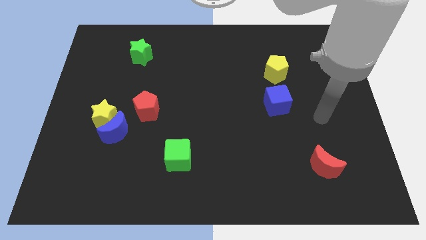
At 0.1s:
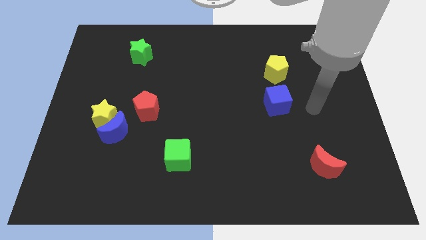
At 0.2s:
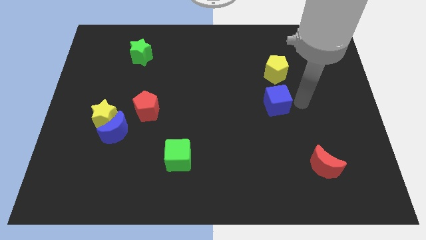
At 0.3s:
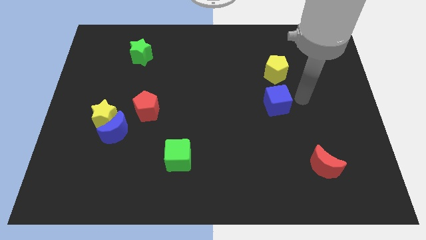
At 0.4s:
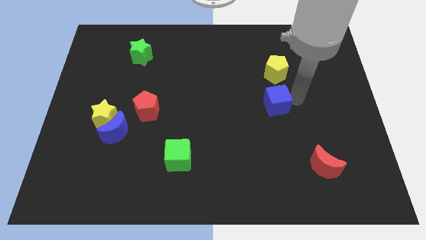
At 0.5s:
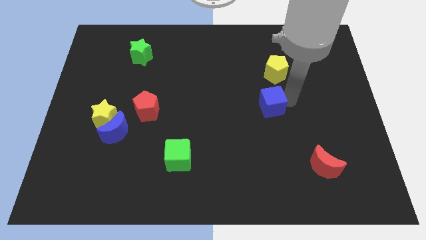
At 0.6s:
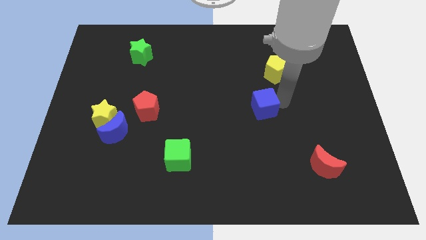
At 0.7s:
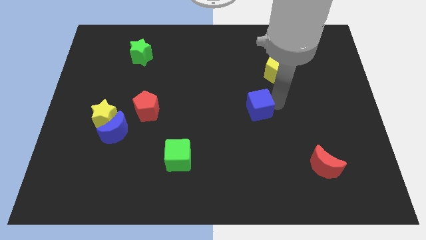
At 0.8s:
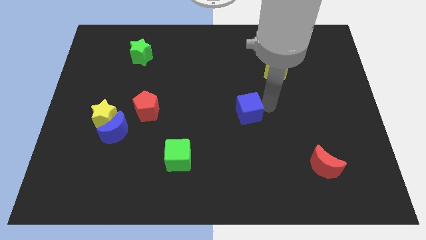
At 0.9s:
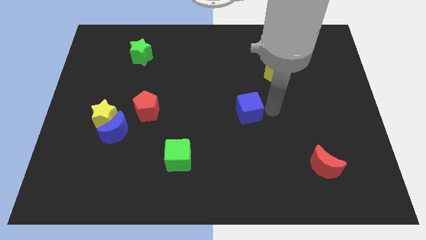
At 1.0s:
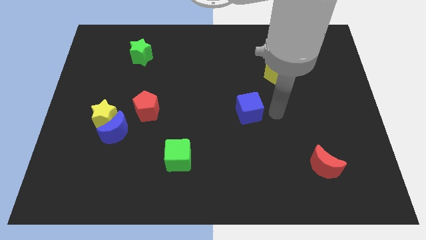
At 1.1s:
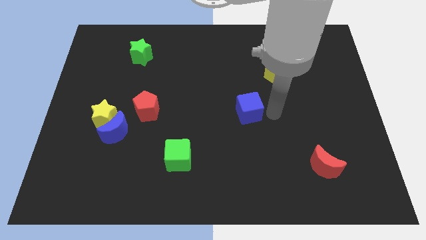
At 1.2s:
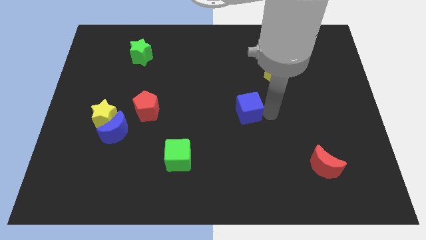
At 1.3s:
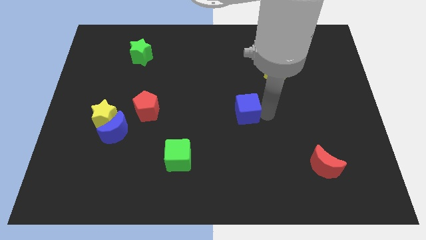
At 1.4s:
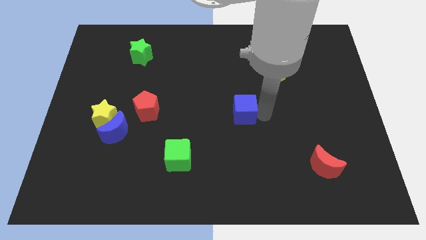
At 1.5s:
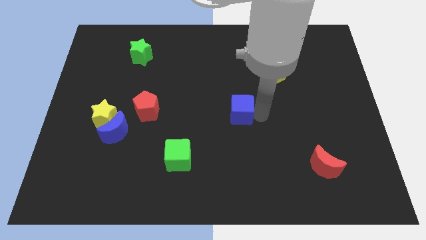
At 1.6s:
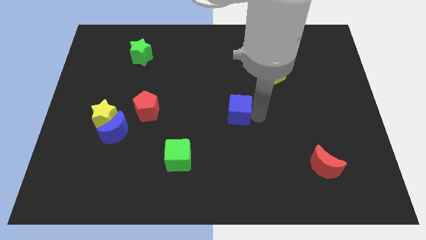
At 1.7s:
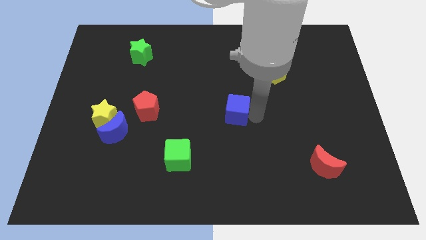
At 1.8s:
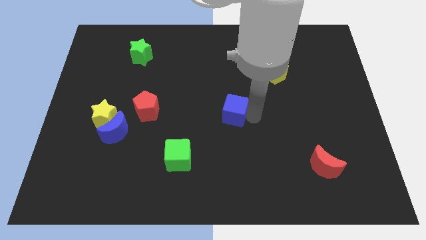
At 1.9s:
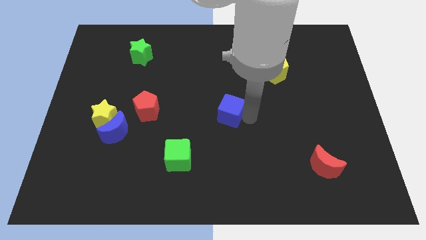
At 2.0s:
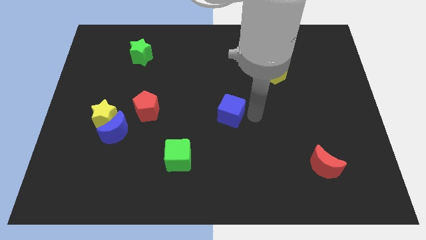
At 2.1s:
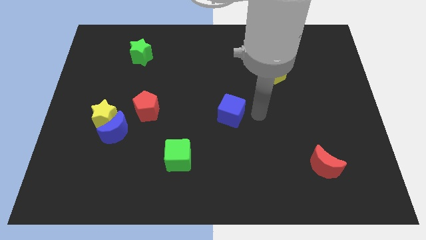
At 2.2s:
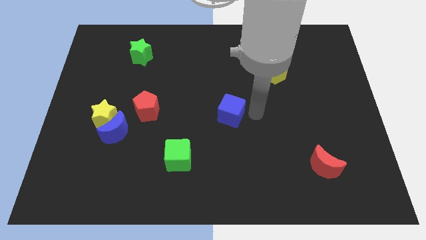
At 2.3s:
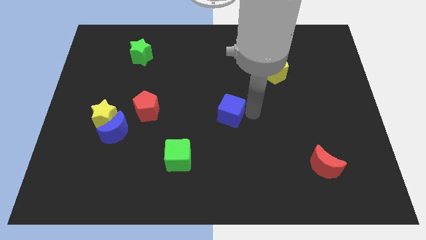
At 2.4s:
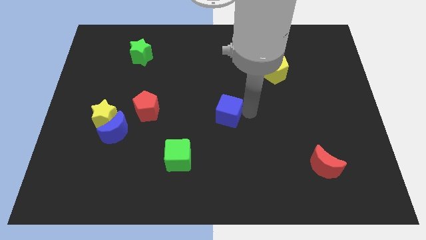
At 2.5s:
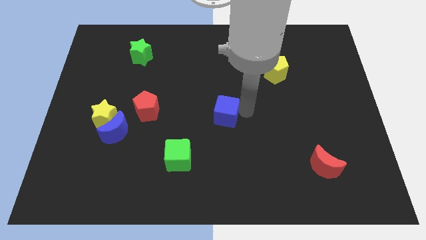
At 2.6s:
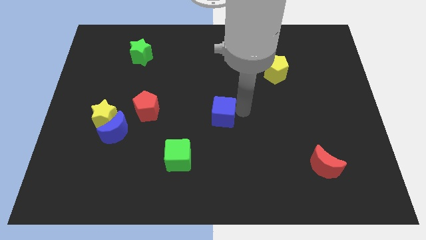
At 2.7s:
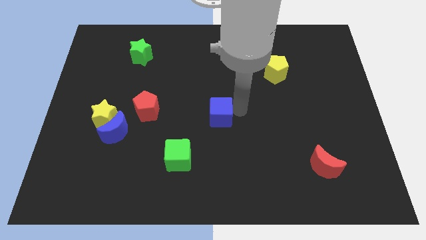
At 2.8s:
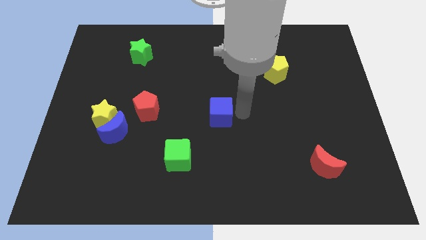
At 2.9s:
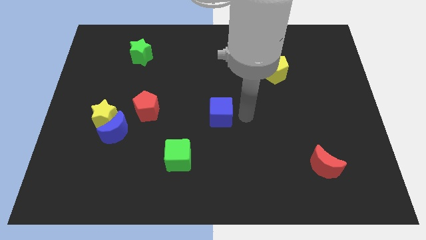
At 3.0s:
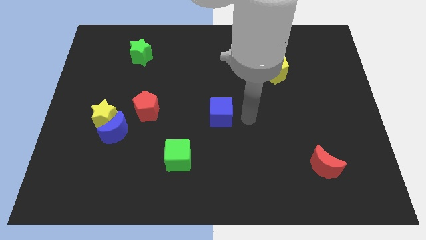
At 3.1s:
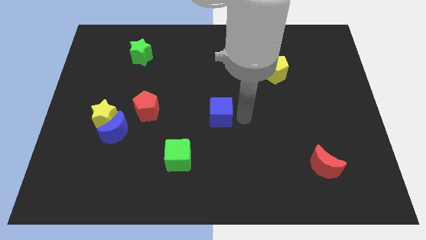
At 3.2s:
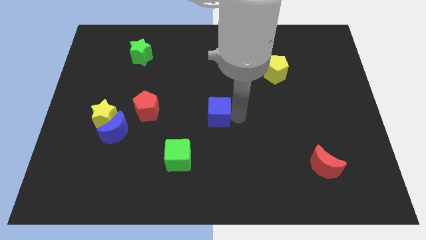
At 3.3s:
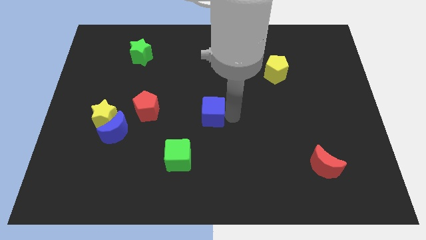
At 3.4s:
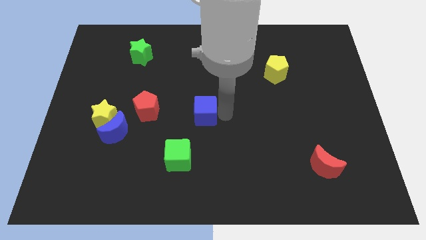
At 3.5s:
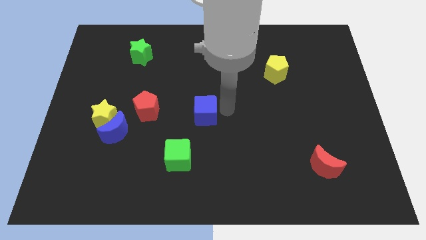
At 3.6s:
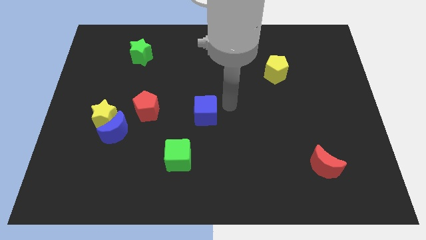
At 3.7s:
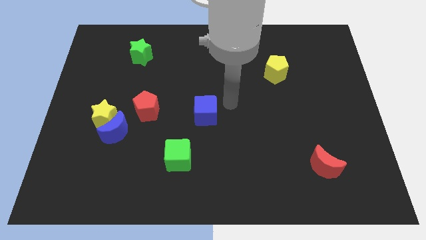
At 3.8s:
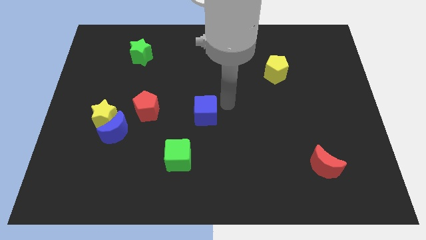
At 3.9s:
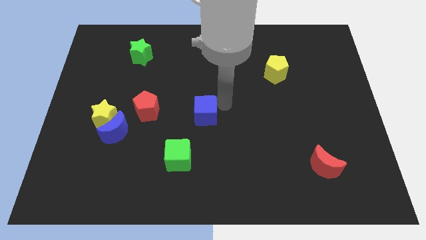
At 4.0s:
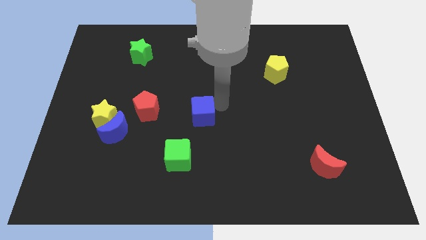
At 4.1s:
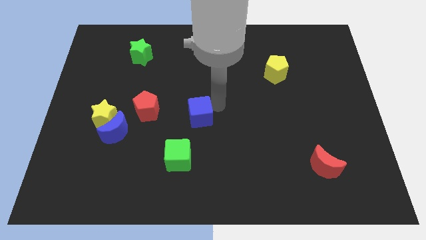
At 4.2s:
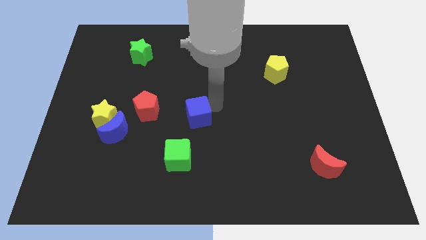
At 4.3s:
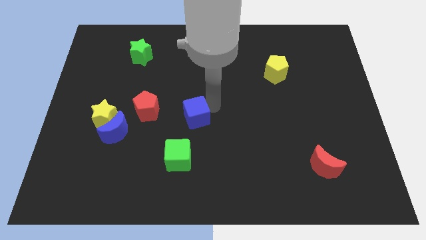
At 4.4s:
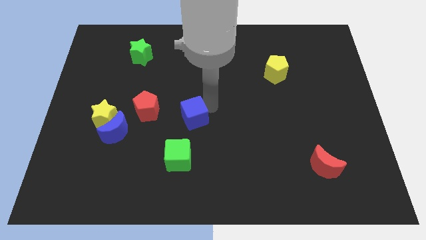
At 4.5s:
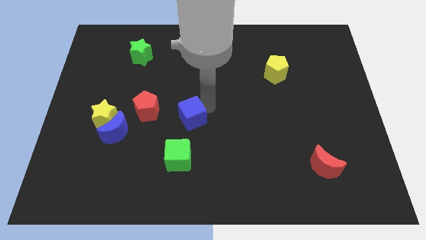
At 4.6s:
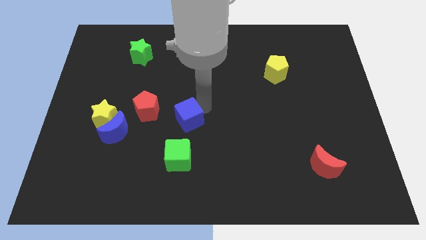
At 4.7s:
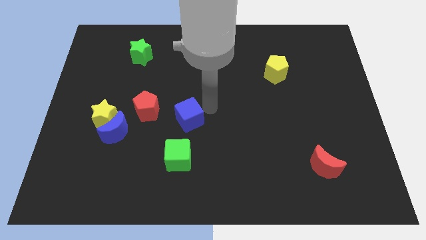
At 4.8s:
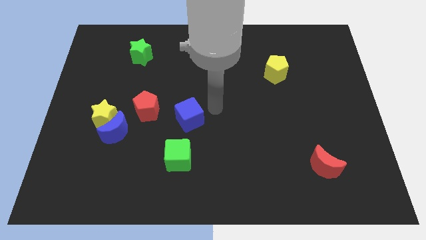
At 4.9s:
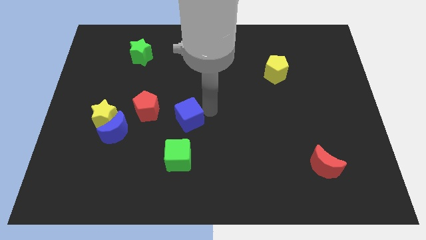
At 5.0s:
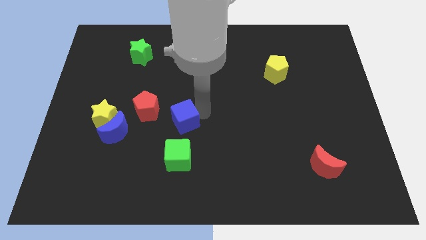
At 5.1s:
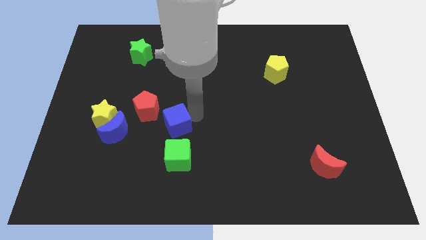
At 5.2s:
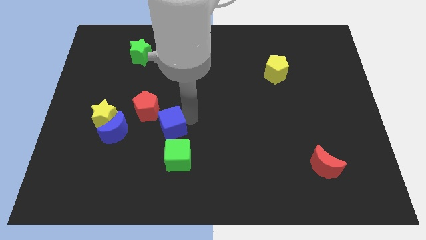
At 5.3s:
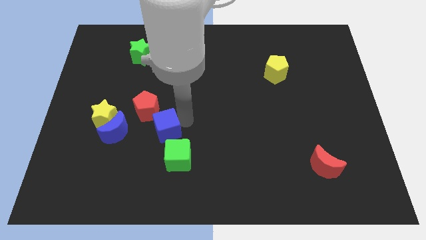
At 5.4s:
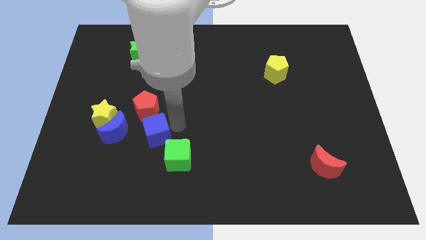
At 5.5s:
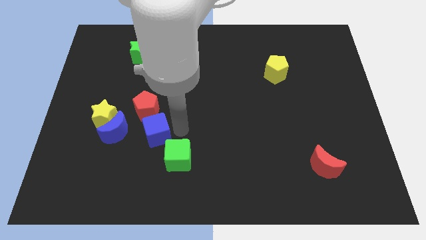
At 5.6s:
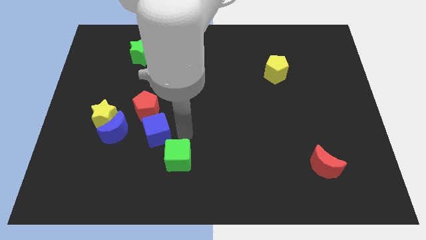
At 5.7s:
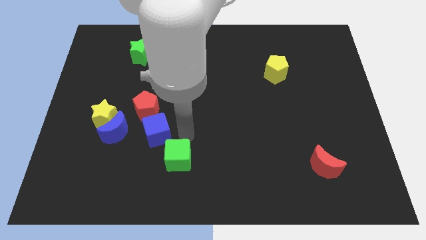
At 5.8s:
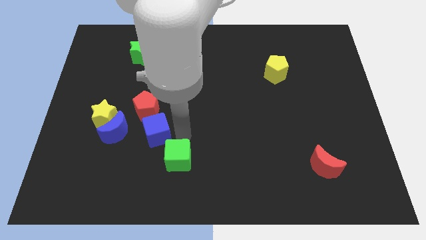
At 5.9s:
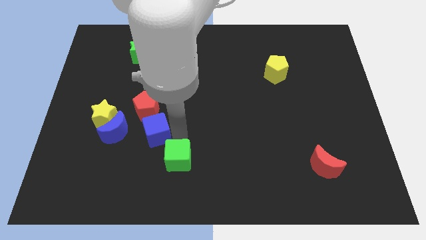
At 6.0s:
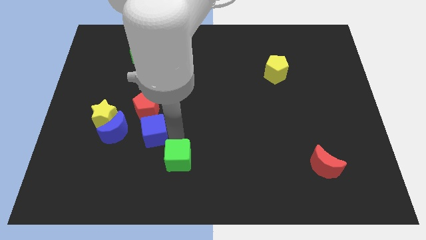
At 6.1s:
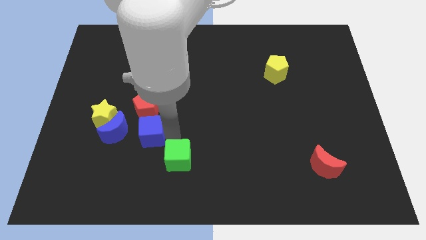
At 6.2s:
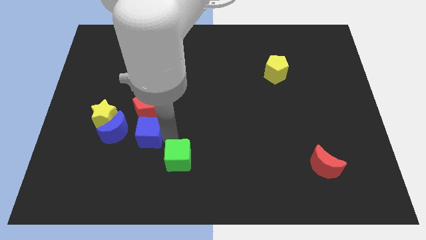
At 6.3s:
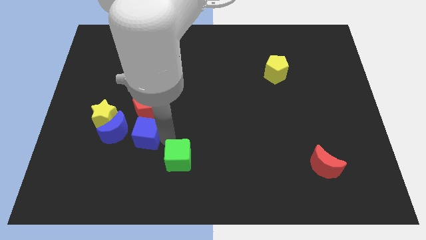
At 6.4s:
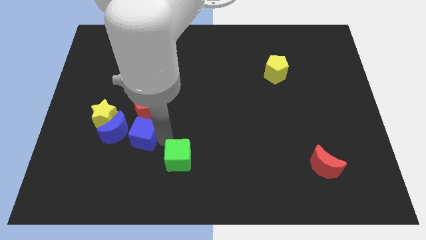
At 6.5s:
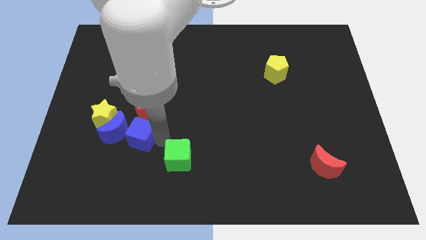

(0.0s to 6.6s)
move the blue cube next to the blue moon
